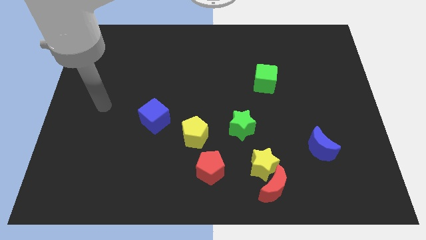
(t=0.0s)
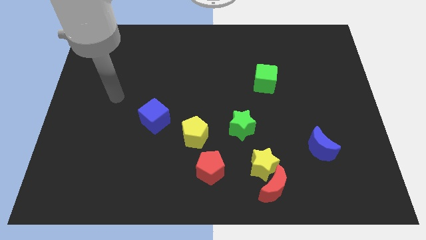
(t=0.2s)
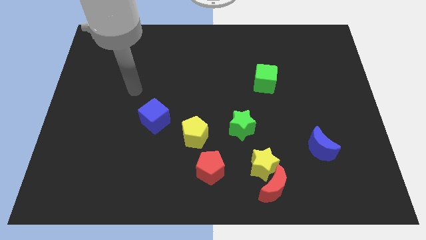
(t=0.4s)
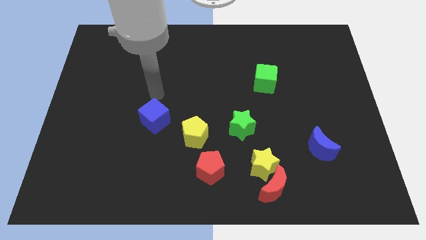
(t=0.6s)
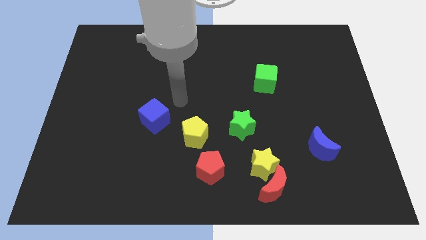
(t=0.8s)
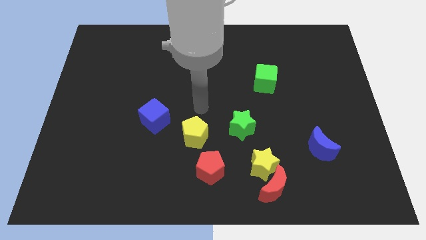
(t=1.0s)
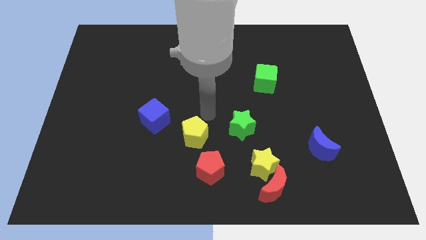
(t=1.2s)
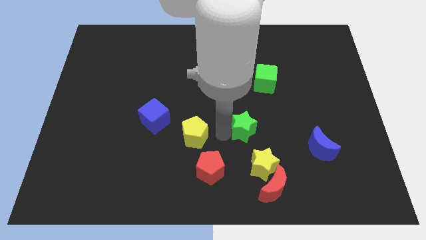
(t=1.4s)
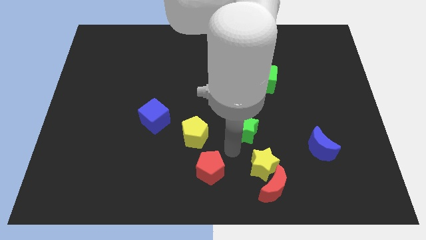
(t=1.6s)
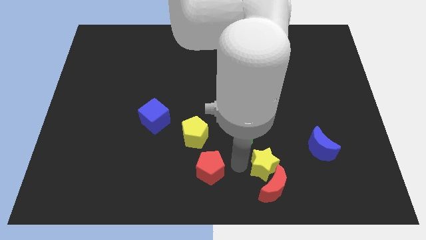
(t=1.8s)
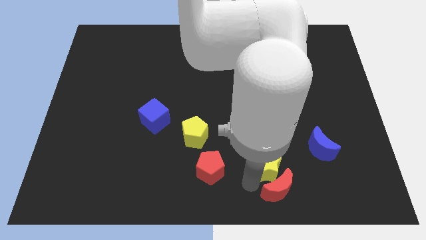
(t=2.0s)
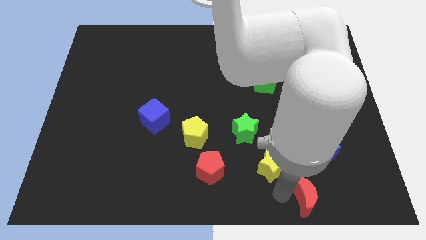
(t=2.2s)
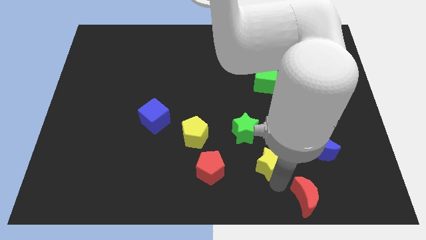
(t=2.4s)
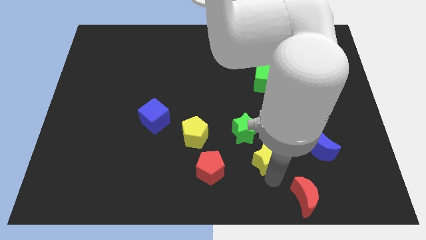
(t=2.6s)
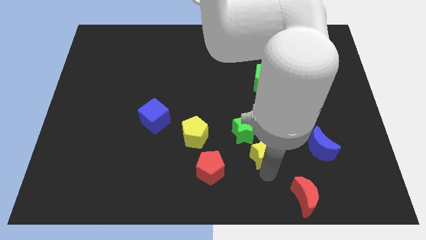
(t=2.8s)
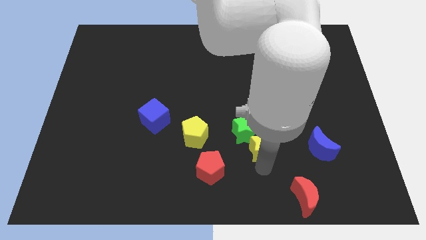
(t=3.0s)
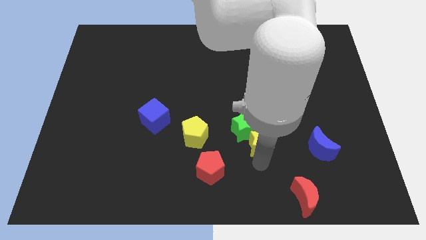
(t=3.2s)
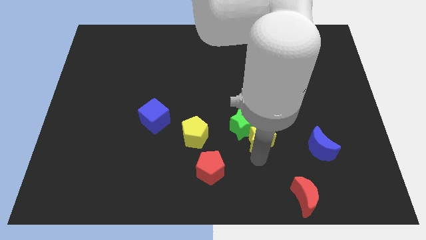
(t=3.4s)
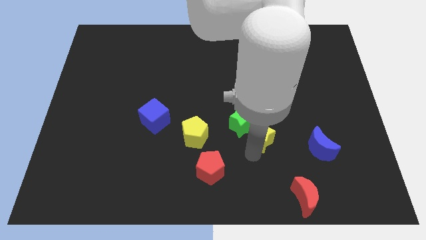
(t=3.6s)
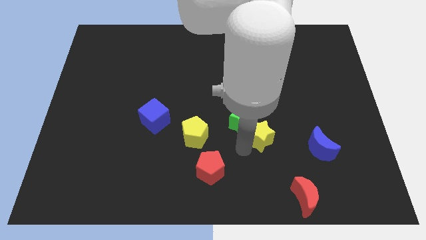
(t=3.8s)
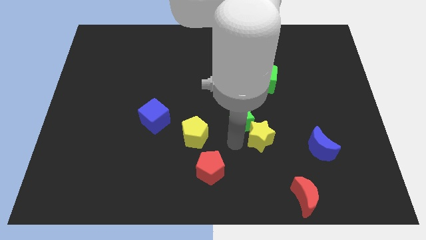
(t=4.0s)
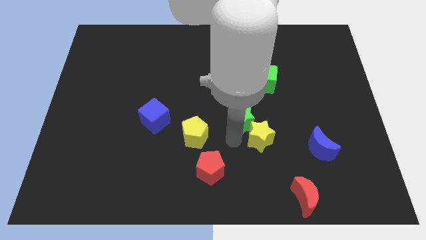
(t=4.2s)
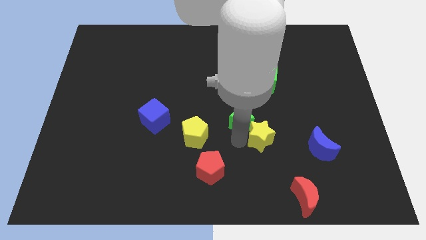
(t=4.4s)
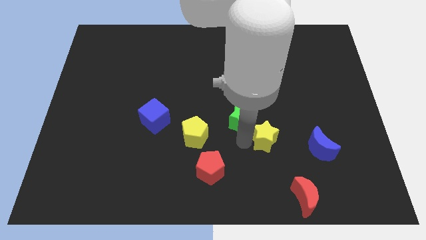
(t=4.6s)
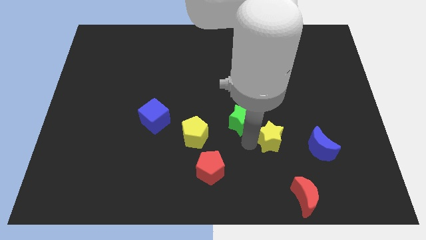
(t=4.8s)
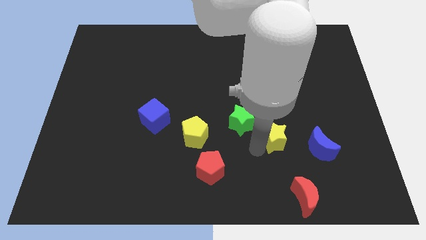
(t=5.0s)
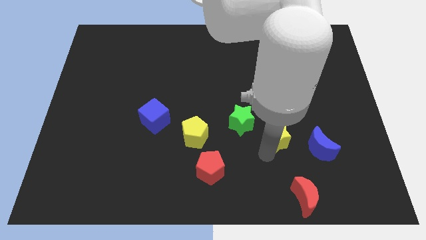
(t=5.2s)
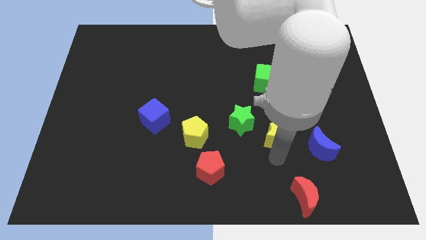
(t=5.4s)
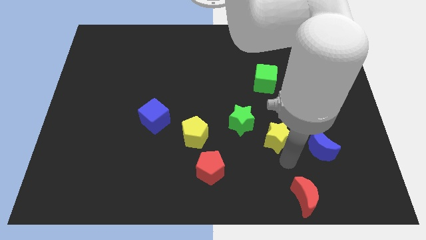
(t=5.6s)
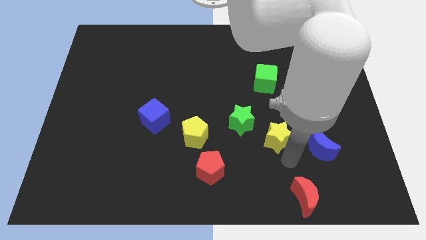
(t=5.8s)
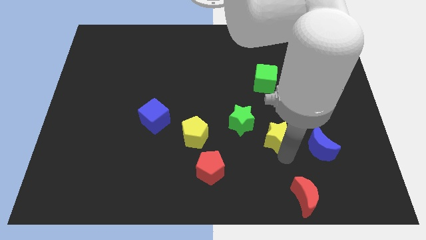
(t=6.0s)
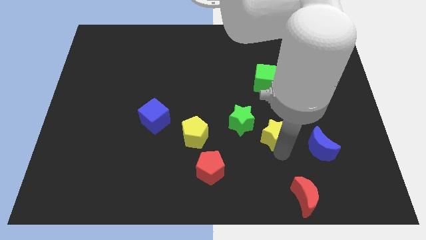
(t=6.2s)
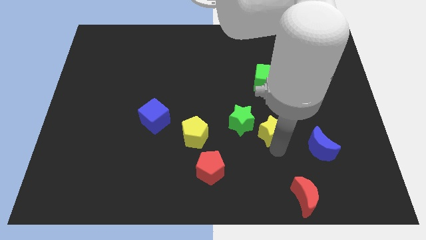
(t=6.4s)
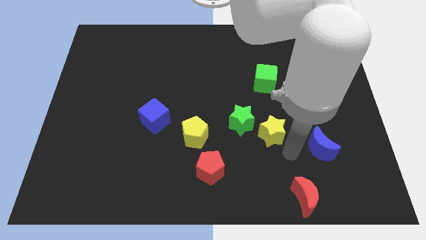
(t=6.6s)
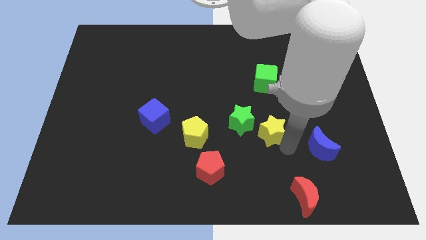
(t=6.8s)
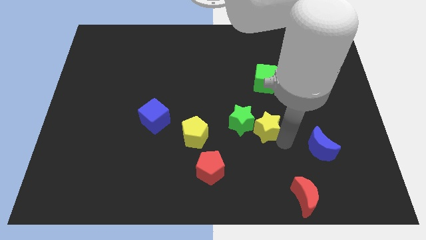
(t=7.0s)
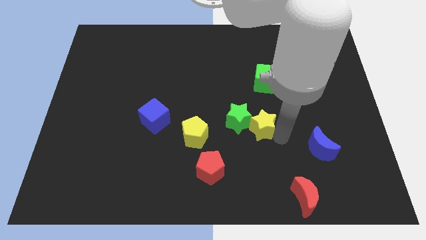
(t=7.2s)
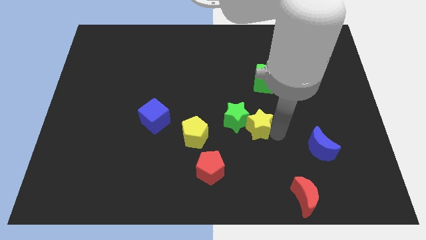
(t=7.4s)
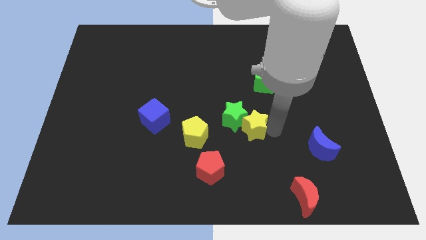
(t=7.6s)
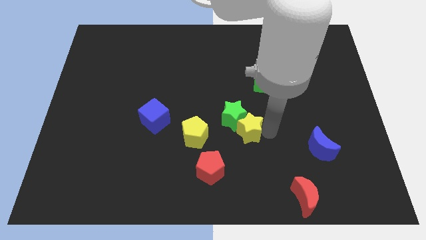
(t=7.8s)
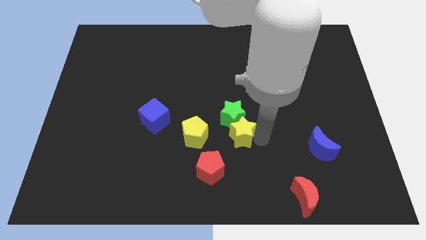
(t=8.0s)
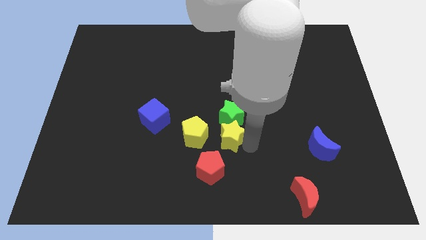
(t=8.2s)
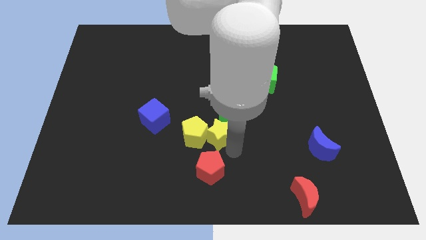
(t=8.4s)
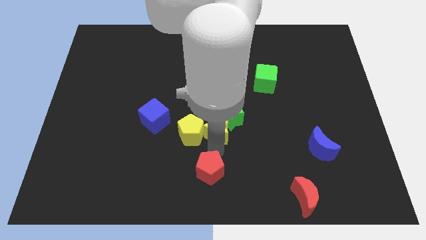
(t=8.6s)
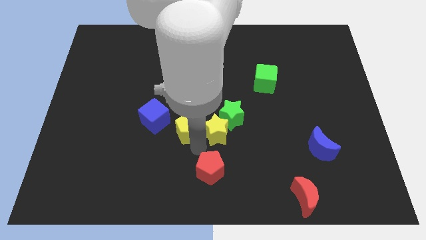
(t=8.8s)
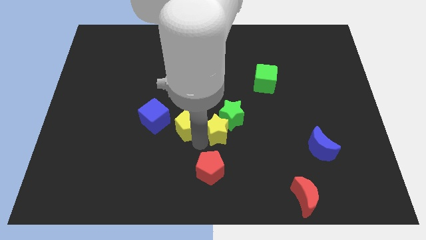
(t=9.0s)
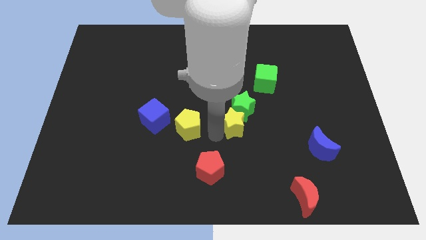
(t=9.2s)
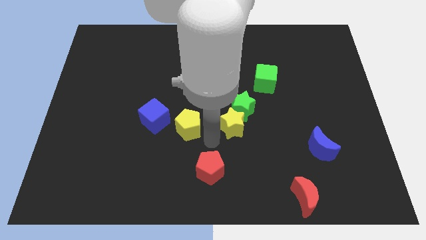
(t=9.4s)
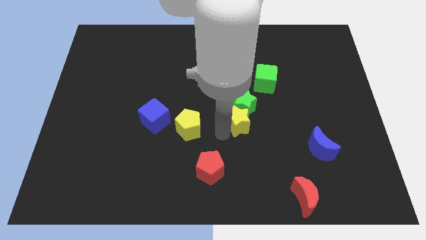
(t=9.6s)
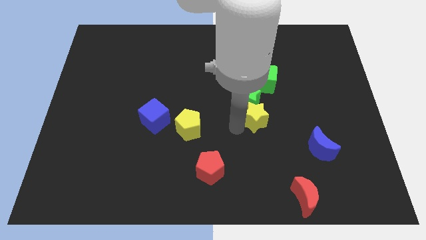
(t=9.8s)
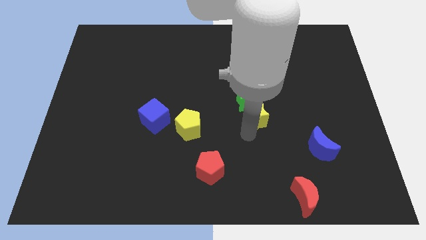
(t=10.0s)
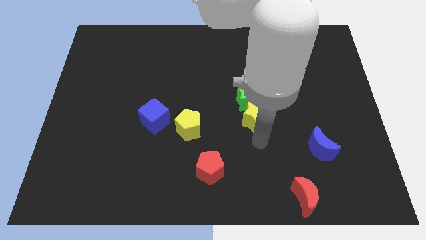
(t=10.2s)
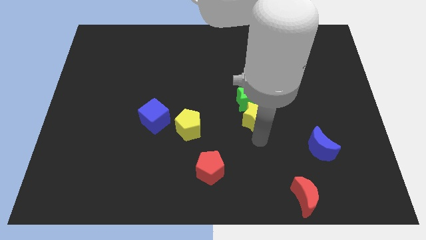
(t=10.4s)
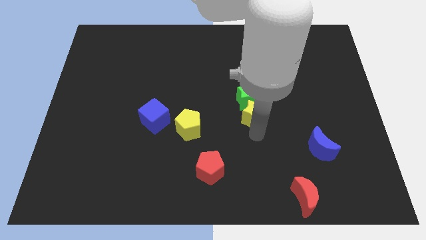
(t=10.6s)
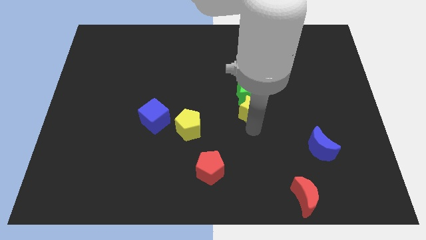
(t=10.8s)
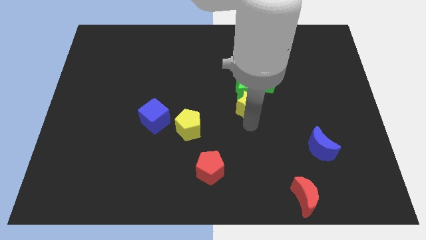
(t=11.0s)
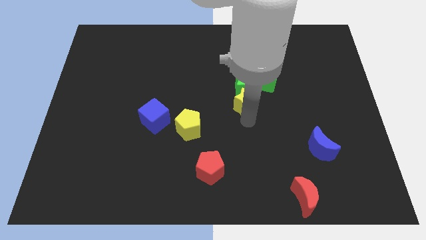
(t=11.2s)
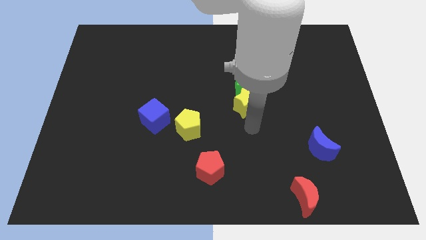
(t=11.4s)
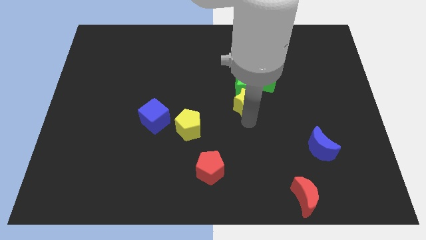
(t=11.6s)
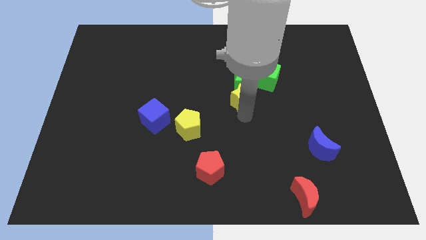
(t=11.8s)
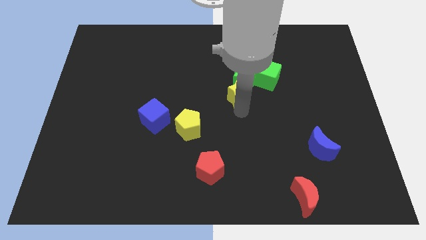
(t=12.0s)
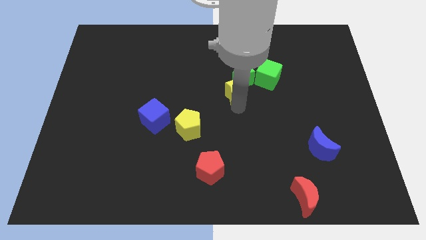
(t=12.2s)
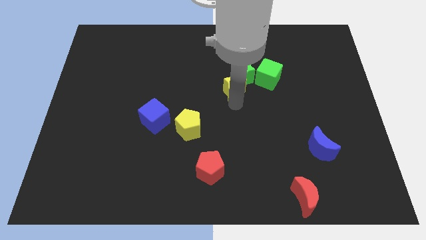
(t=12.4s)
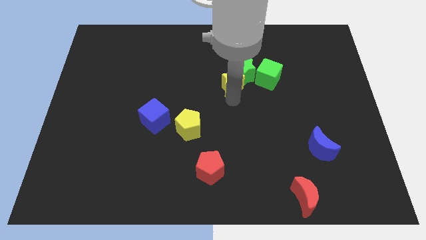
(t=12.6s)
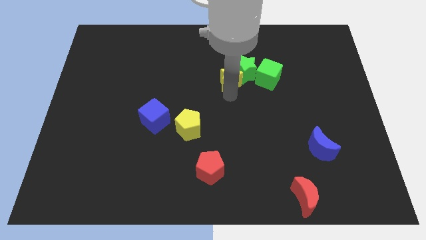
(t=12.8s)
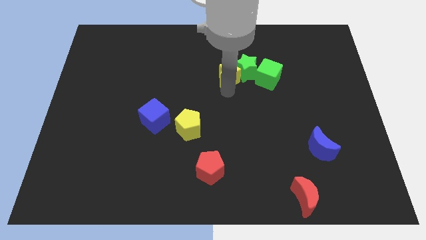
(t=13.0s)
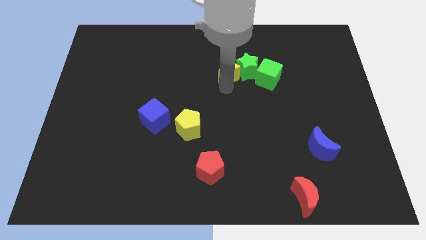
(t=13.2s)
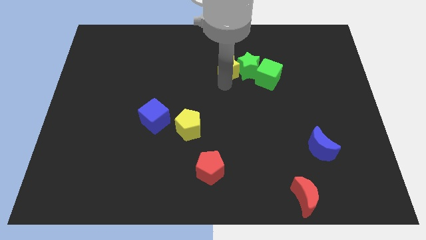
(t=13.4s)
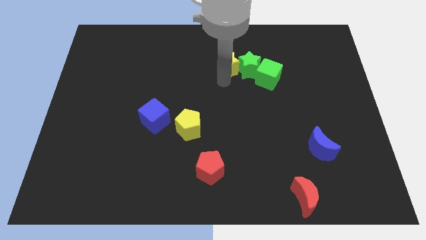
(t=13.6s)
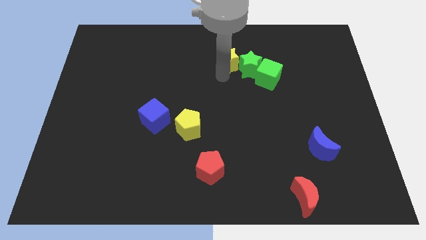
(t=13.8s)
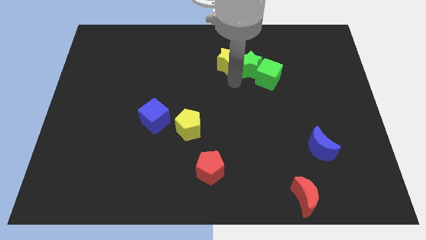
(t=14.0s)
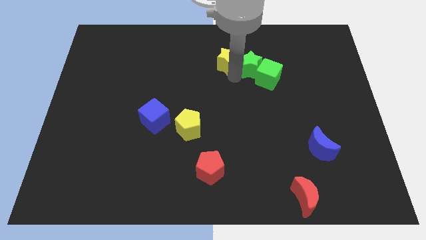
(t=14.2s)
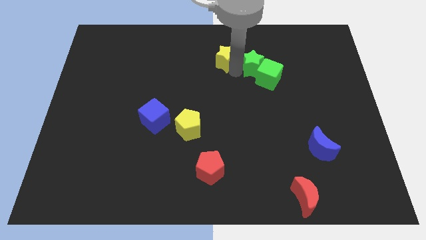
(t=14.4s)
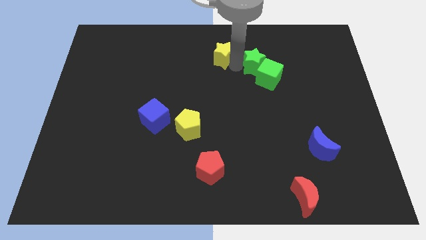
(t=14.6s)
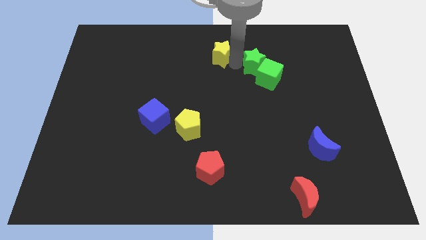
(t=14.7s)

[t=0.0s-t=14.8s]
push the yellow star to the top side
